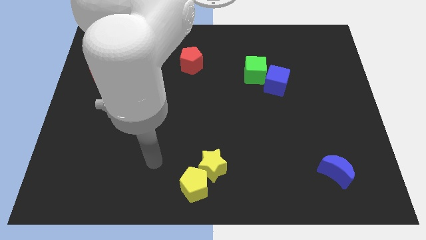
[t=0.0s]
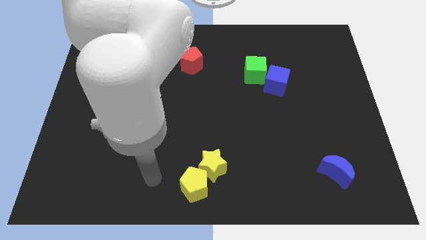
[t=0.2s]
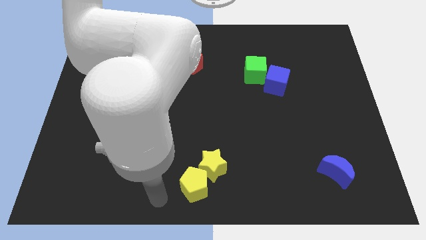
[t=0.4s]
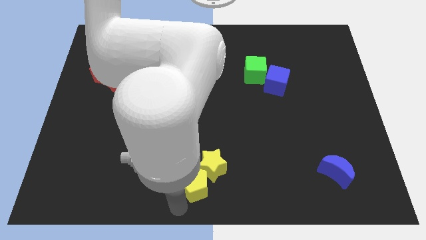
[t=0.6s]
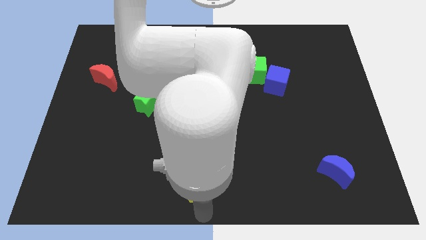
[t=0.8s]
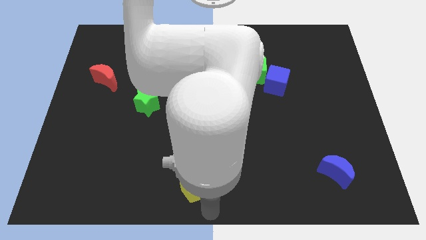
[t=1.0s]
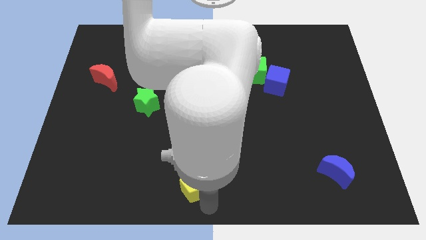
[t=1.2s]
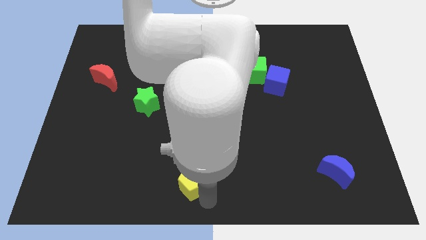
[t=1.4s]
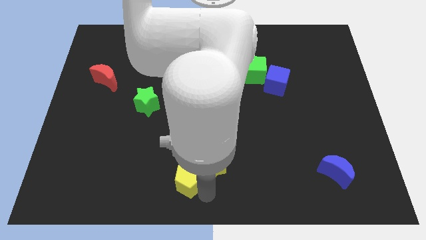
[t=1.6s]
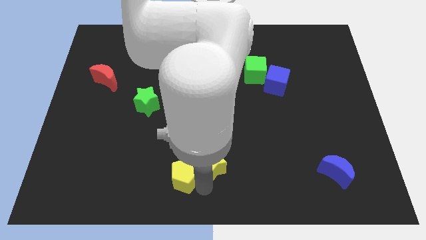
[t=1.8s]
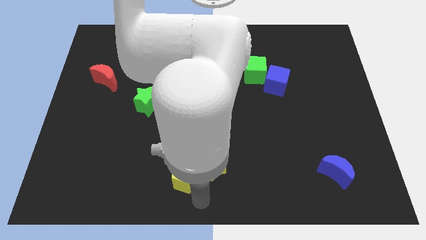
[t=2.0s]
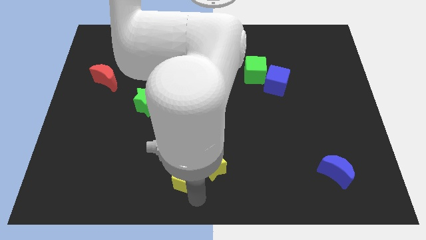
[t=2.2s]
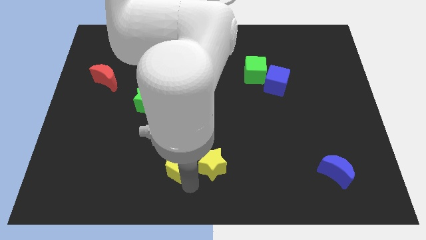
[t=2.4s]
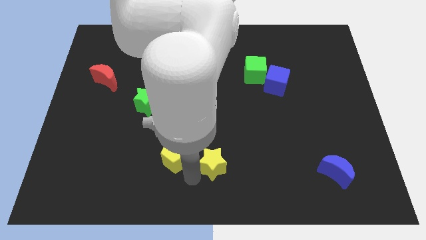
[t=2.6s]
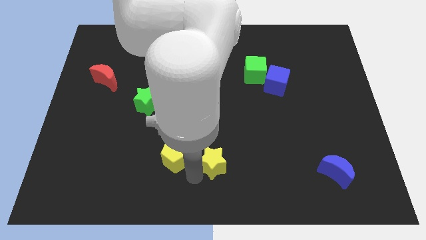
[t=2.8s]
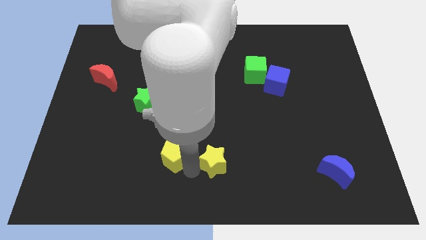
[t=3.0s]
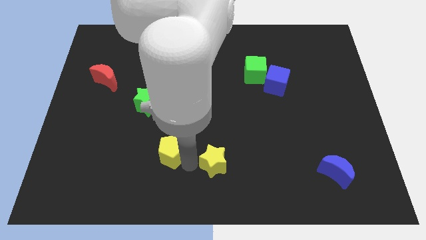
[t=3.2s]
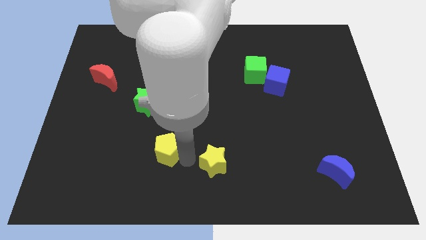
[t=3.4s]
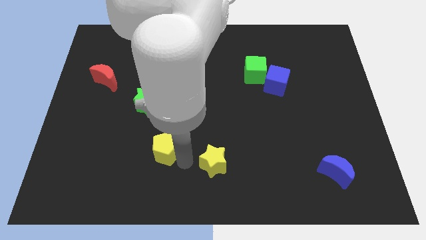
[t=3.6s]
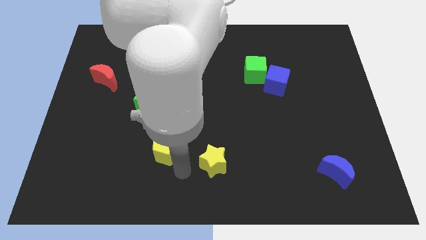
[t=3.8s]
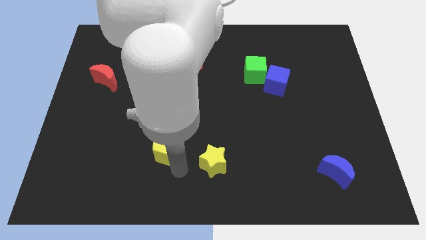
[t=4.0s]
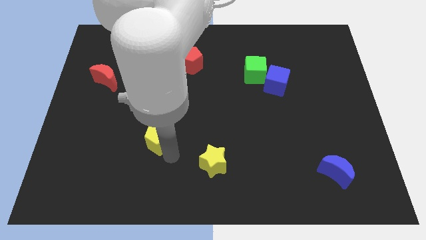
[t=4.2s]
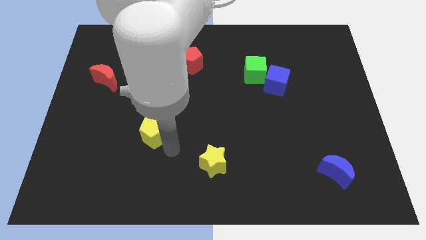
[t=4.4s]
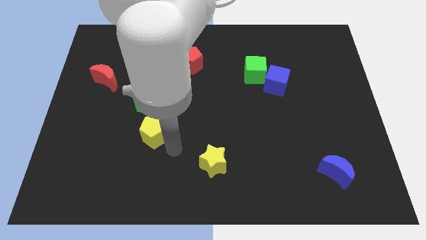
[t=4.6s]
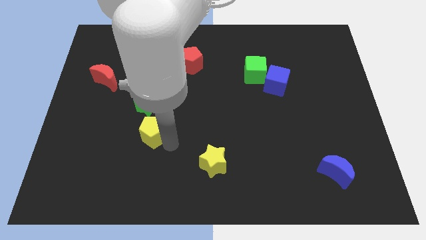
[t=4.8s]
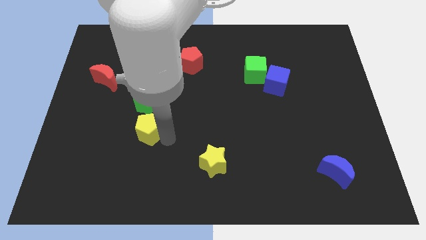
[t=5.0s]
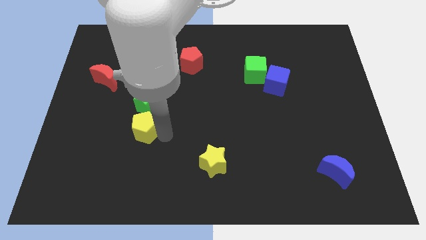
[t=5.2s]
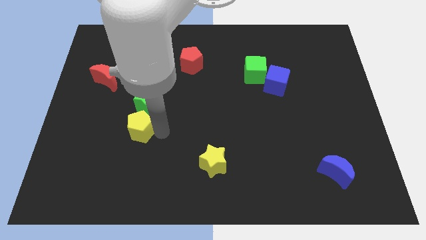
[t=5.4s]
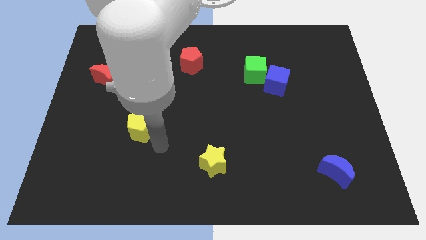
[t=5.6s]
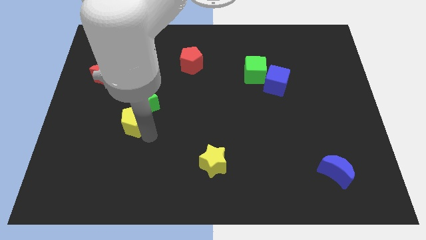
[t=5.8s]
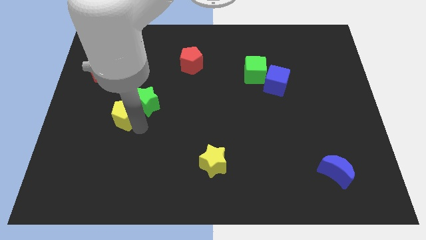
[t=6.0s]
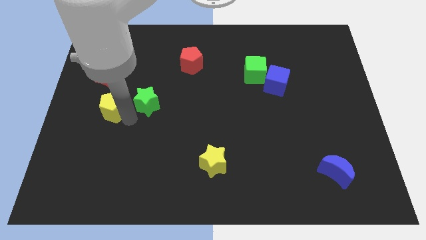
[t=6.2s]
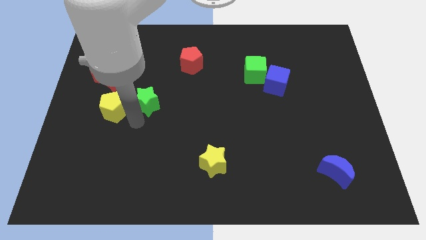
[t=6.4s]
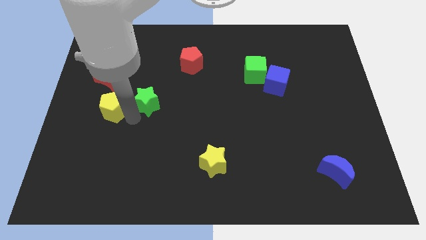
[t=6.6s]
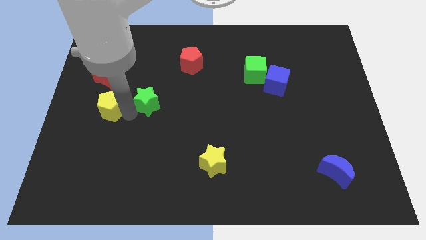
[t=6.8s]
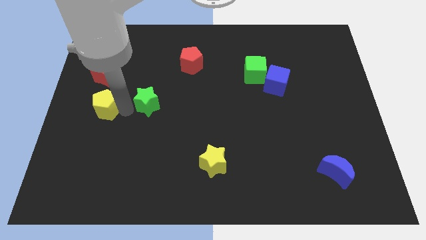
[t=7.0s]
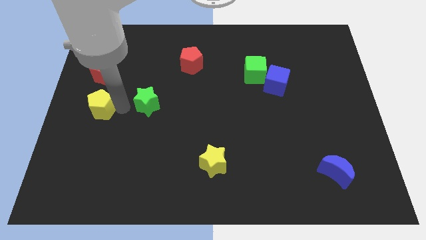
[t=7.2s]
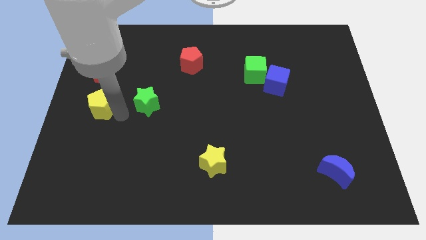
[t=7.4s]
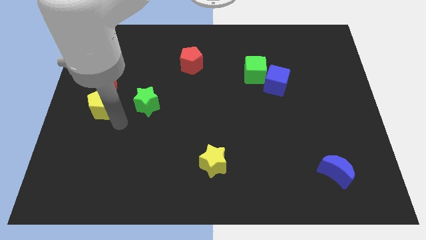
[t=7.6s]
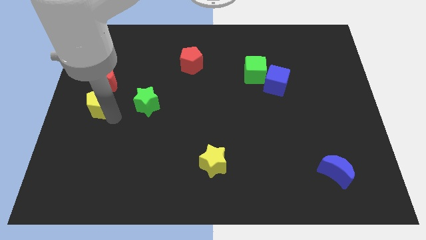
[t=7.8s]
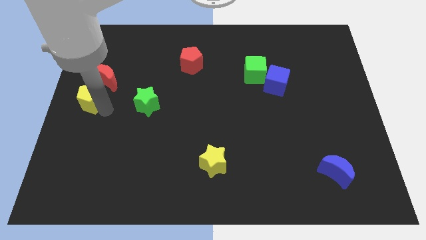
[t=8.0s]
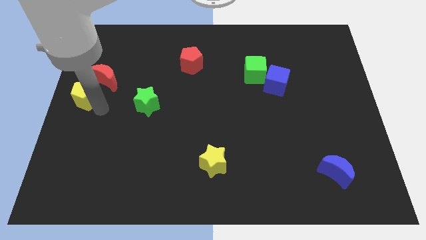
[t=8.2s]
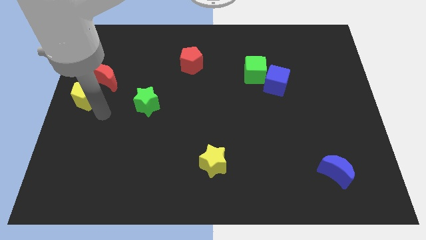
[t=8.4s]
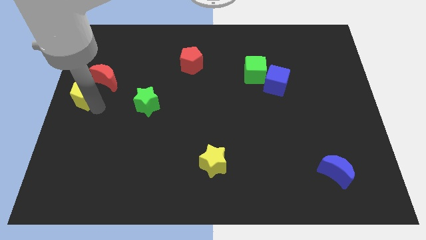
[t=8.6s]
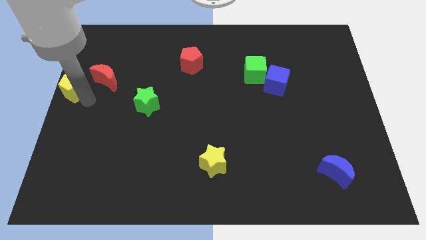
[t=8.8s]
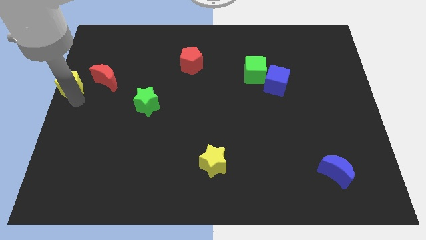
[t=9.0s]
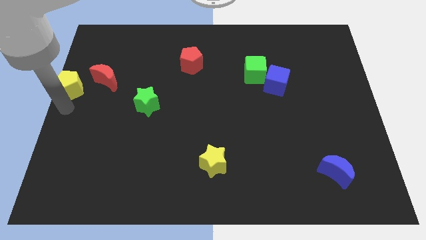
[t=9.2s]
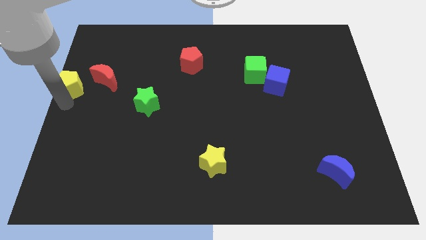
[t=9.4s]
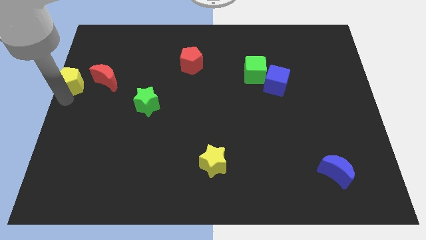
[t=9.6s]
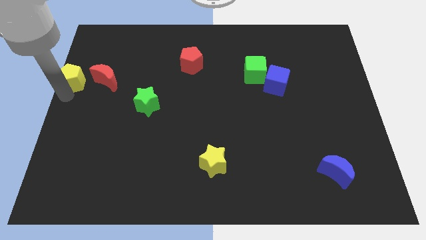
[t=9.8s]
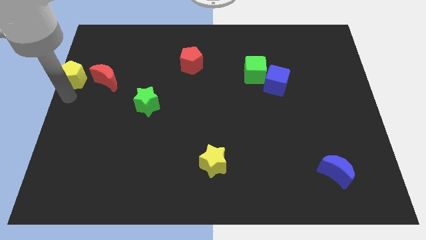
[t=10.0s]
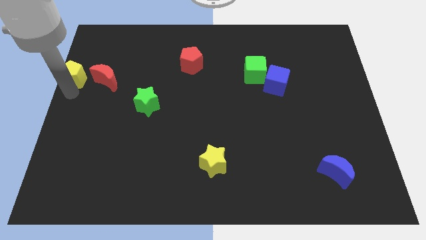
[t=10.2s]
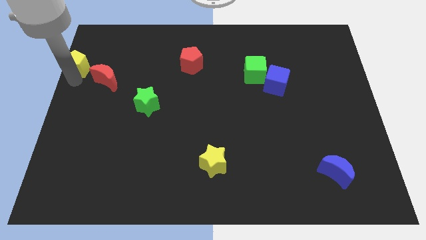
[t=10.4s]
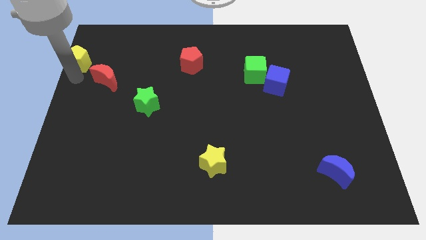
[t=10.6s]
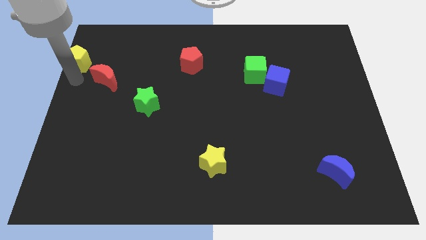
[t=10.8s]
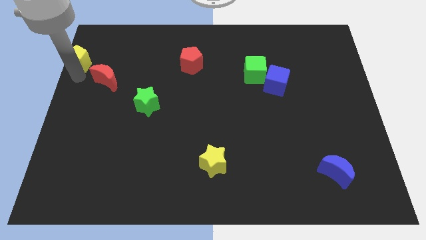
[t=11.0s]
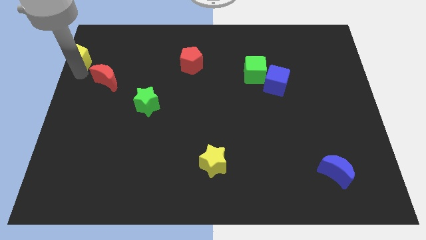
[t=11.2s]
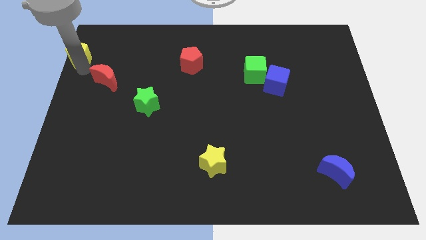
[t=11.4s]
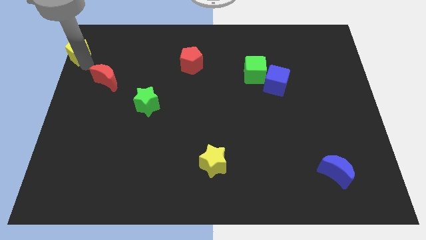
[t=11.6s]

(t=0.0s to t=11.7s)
move the yellow pentagon to the upper left corner

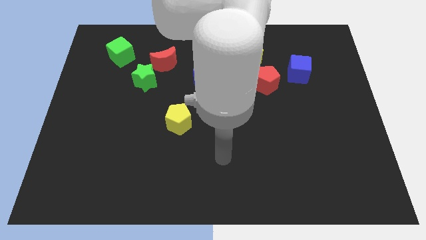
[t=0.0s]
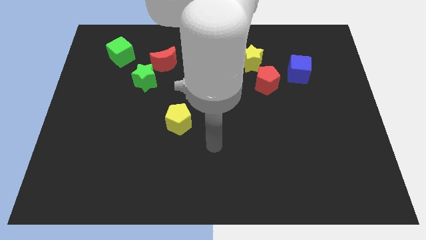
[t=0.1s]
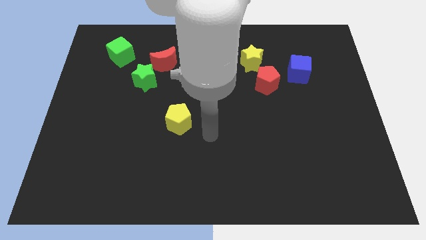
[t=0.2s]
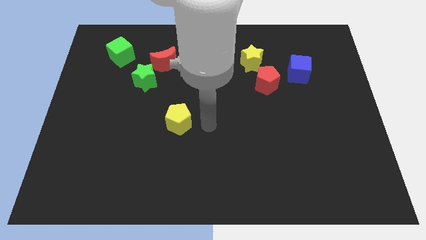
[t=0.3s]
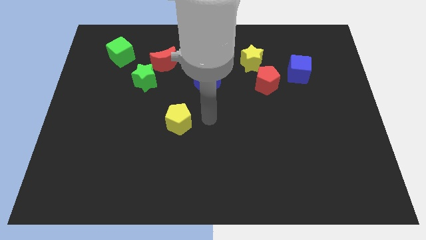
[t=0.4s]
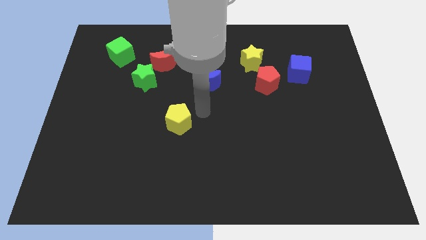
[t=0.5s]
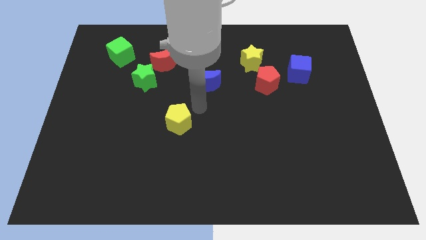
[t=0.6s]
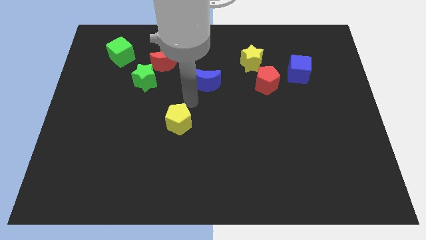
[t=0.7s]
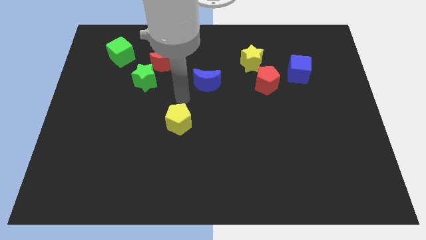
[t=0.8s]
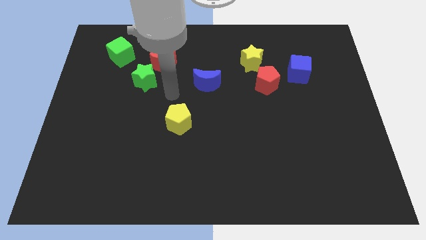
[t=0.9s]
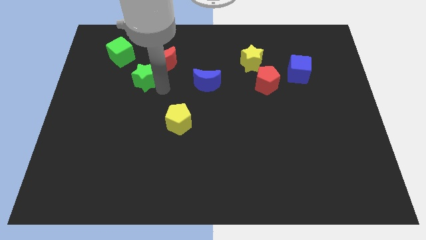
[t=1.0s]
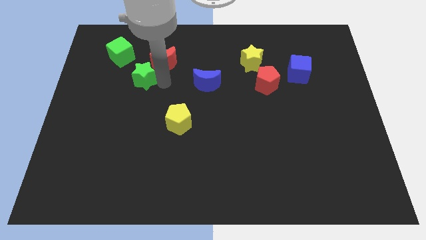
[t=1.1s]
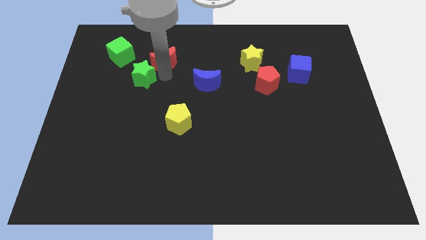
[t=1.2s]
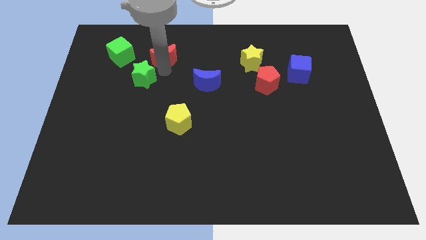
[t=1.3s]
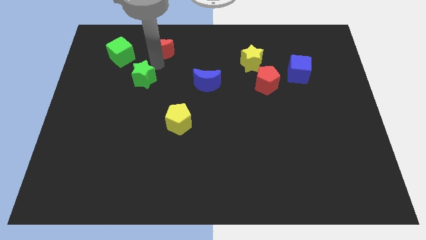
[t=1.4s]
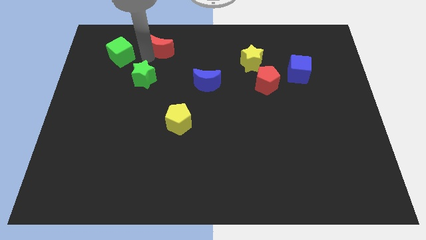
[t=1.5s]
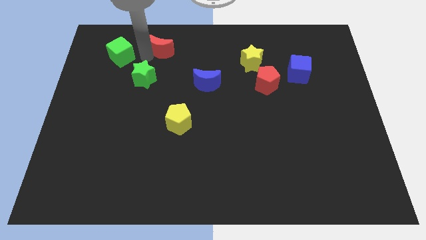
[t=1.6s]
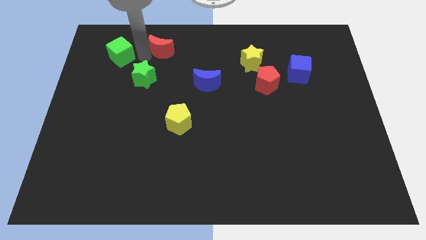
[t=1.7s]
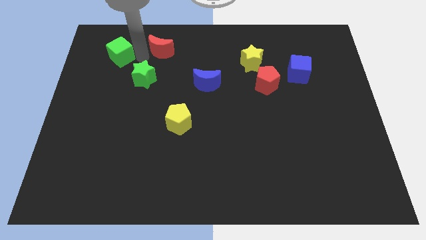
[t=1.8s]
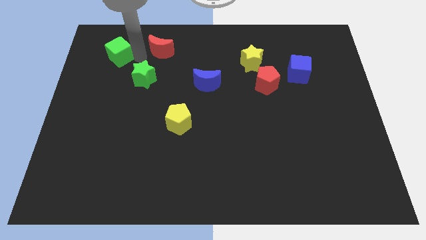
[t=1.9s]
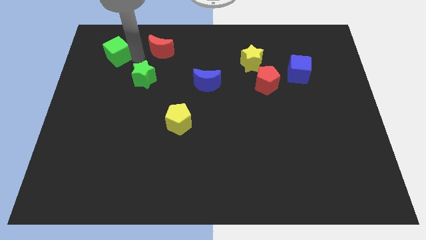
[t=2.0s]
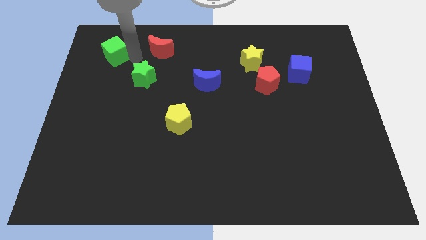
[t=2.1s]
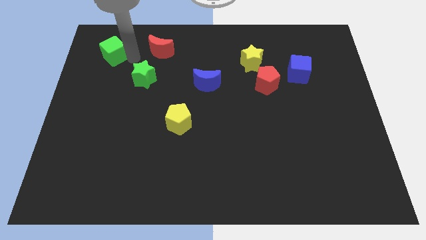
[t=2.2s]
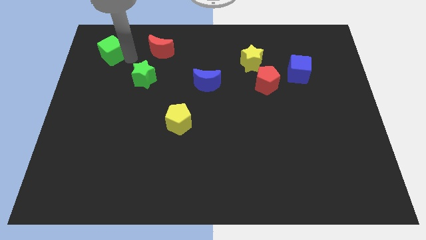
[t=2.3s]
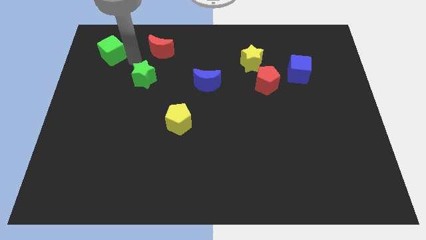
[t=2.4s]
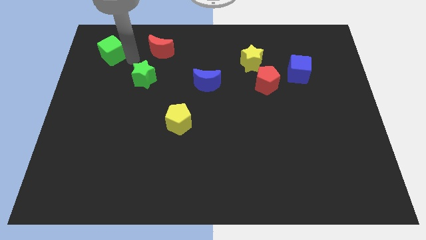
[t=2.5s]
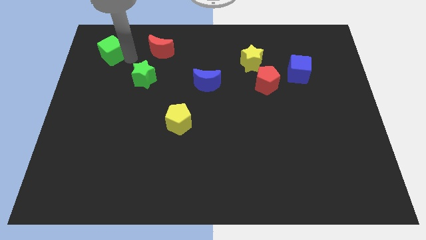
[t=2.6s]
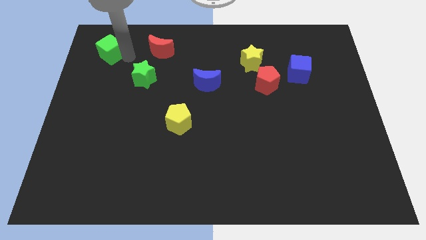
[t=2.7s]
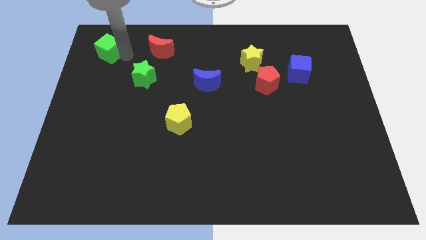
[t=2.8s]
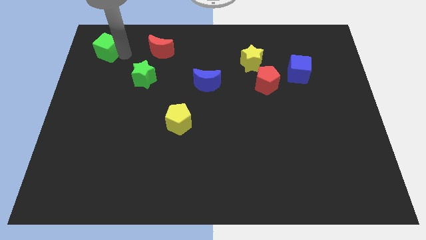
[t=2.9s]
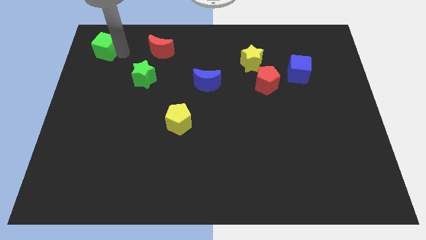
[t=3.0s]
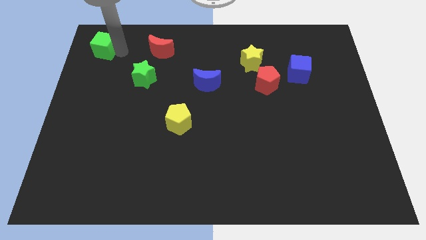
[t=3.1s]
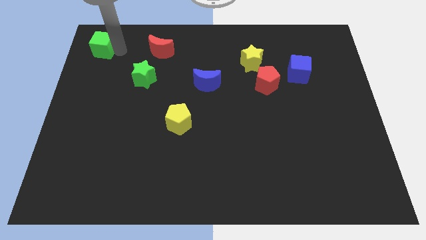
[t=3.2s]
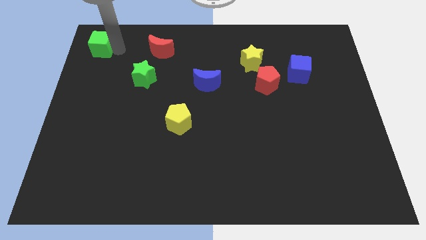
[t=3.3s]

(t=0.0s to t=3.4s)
put the green cube to the top left
